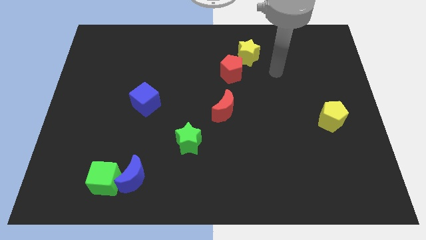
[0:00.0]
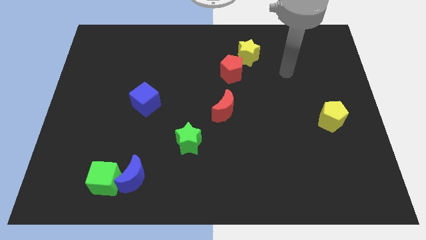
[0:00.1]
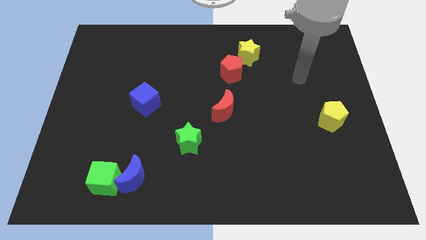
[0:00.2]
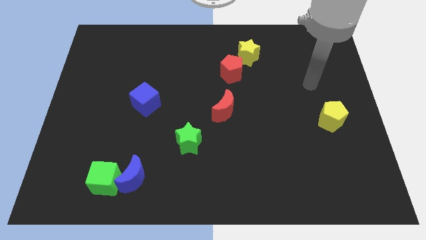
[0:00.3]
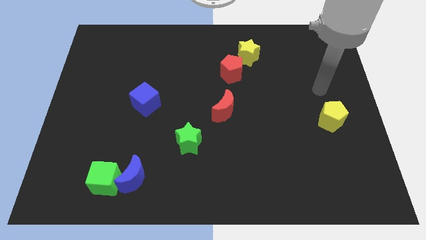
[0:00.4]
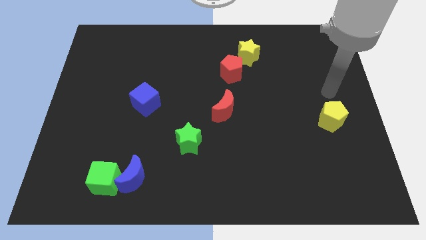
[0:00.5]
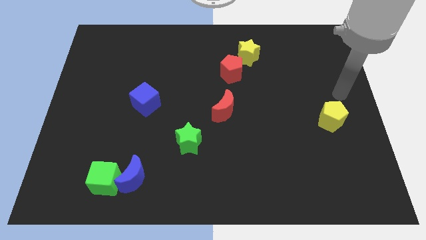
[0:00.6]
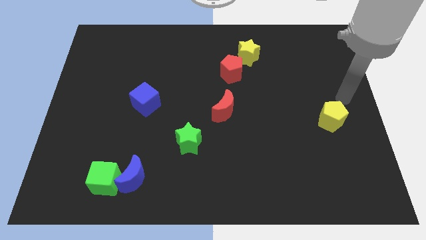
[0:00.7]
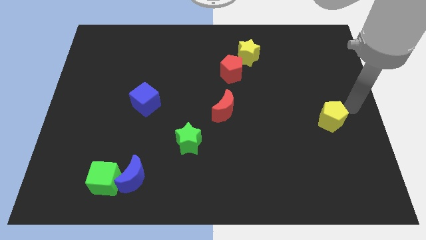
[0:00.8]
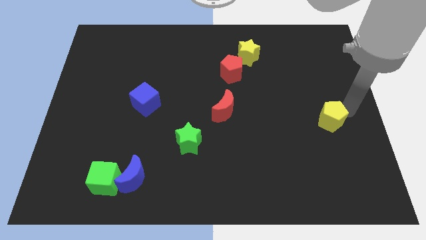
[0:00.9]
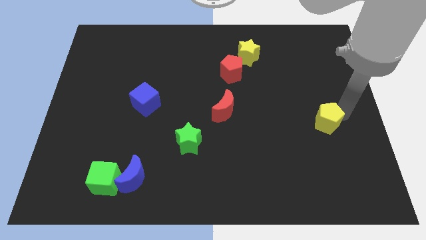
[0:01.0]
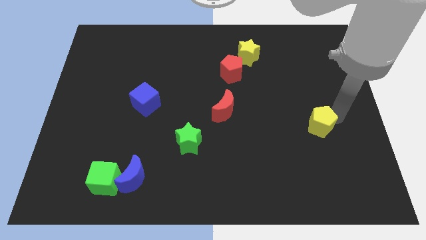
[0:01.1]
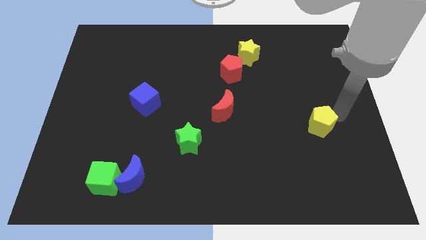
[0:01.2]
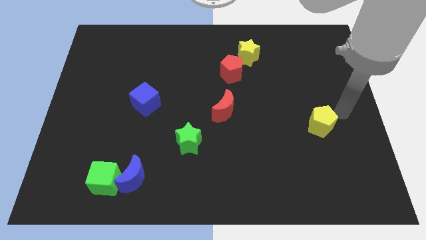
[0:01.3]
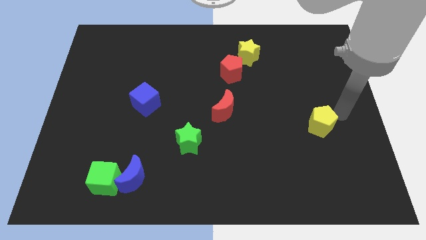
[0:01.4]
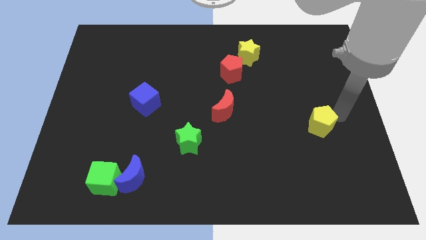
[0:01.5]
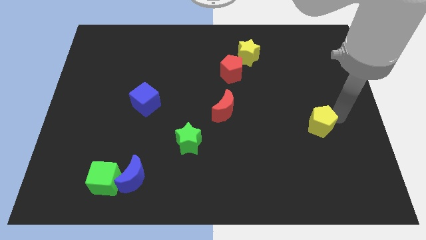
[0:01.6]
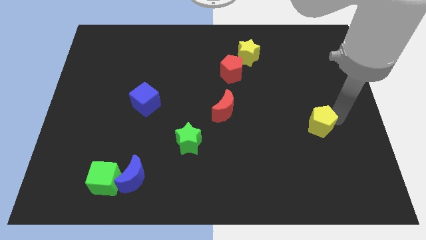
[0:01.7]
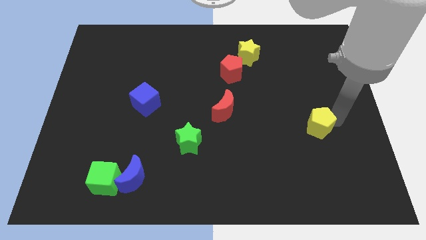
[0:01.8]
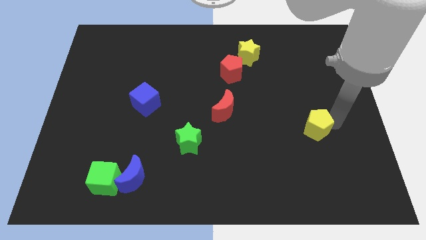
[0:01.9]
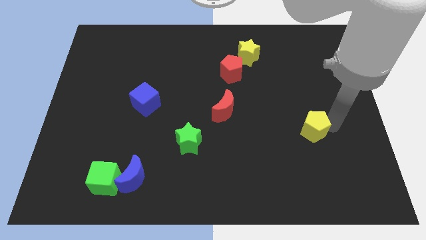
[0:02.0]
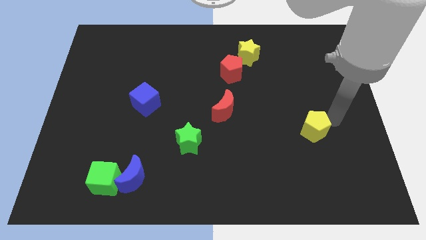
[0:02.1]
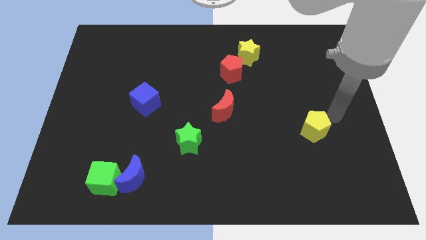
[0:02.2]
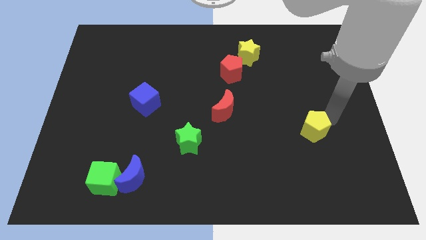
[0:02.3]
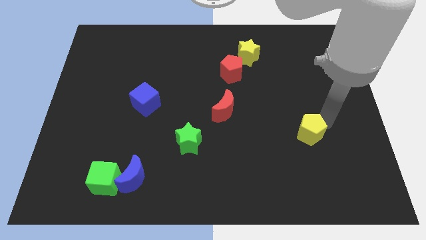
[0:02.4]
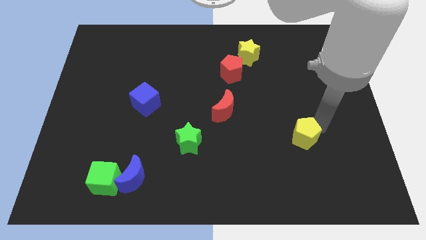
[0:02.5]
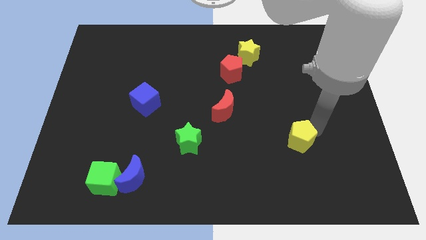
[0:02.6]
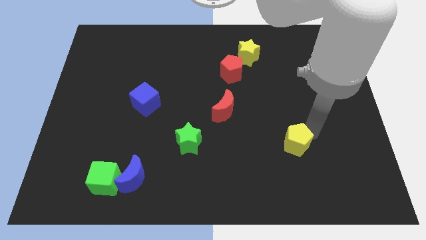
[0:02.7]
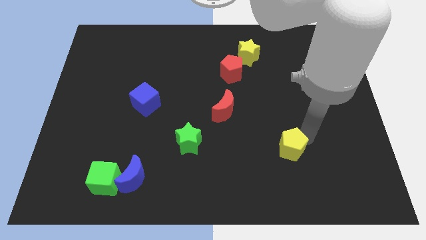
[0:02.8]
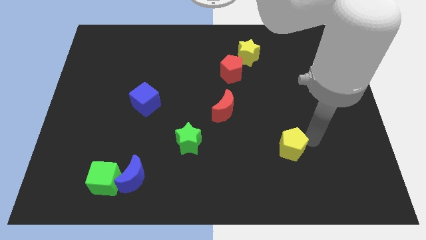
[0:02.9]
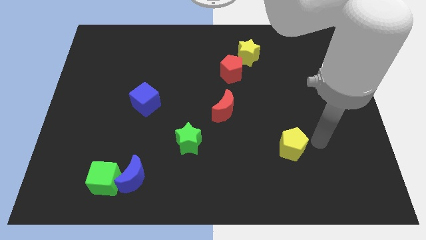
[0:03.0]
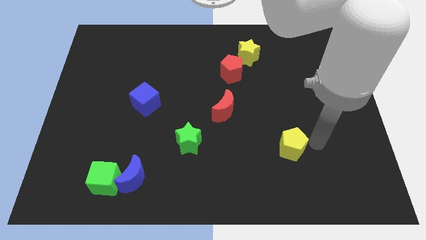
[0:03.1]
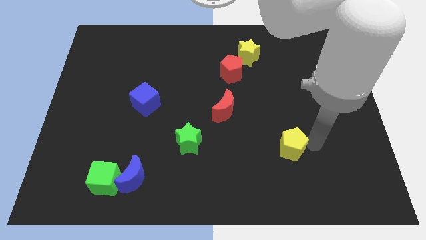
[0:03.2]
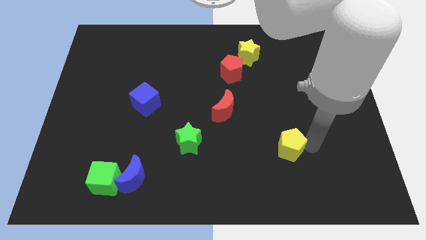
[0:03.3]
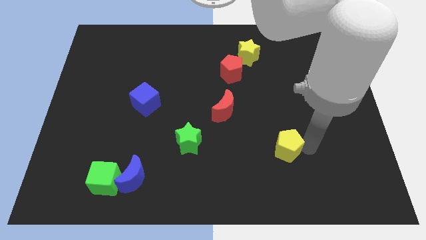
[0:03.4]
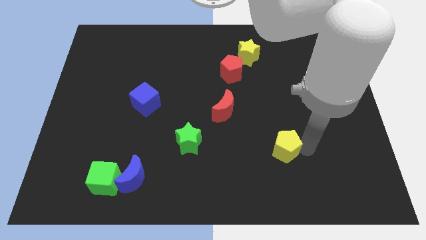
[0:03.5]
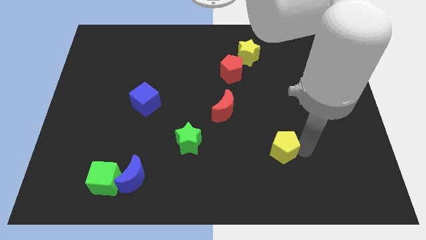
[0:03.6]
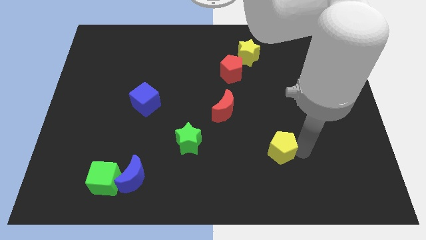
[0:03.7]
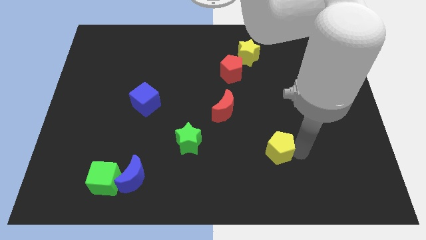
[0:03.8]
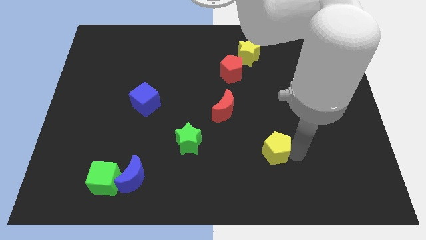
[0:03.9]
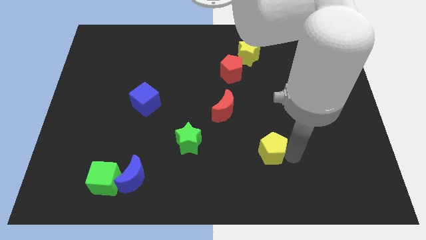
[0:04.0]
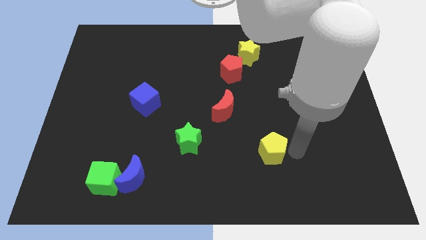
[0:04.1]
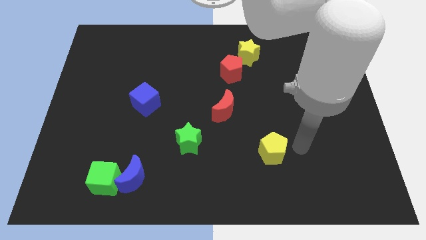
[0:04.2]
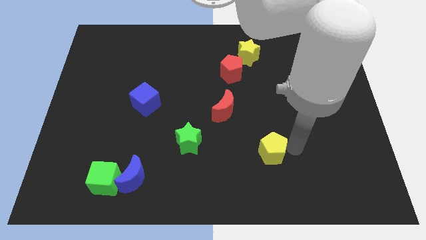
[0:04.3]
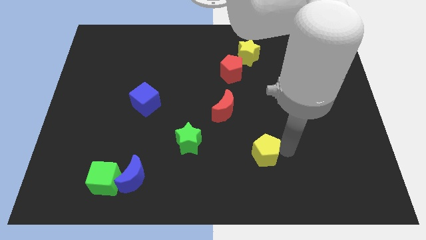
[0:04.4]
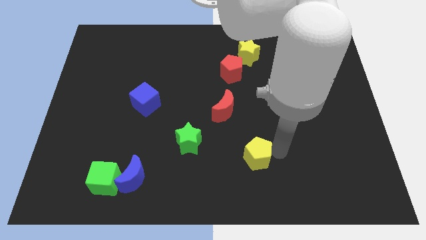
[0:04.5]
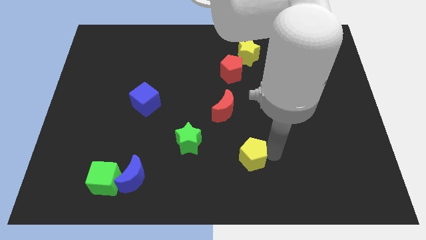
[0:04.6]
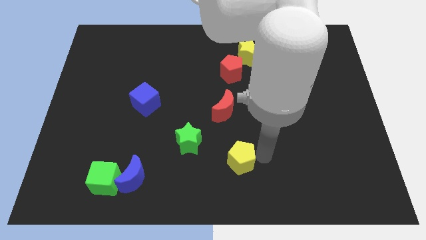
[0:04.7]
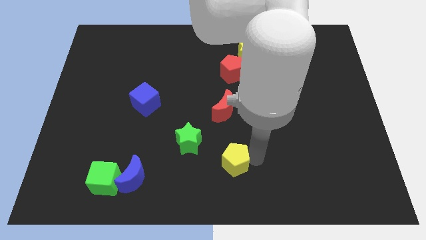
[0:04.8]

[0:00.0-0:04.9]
put the yellow pentagon to the bottom right side of the green star

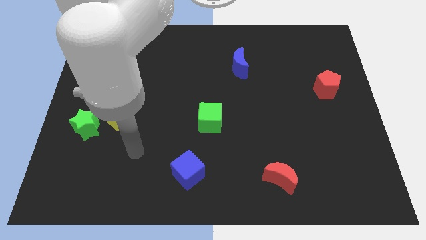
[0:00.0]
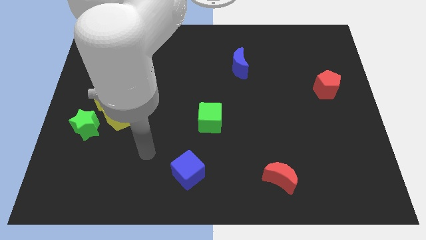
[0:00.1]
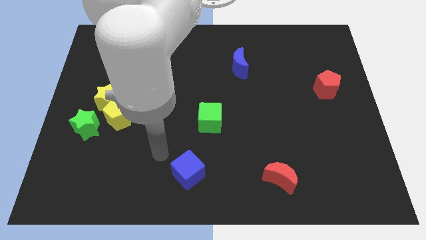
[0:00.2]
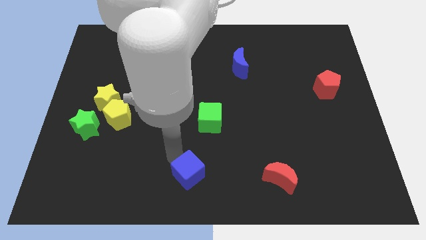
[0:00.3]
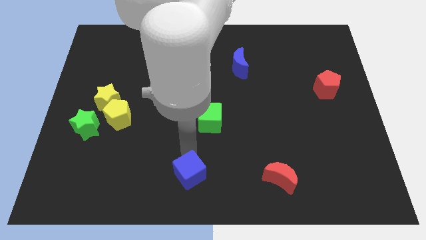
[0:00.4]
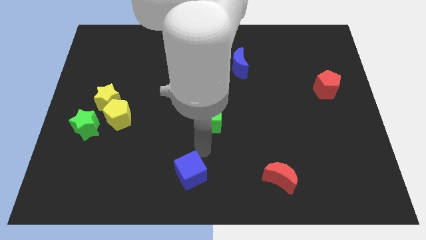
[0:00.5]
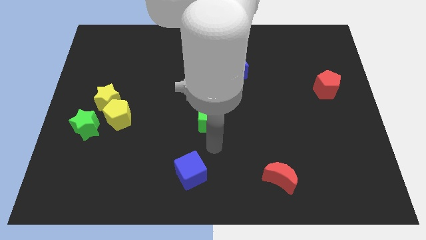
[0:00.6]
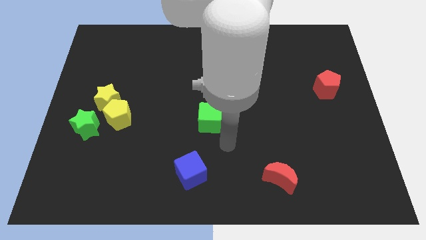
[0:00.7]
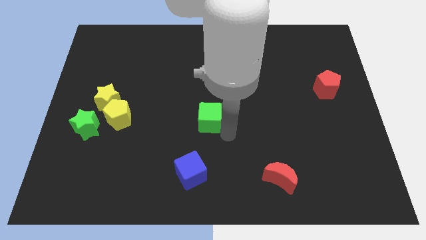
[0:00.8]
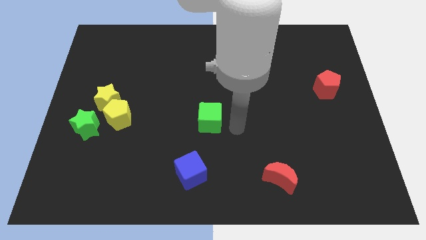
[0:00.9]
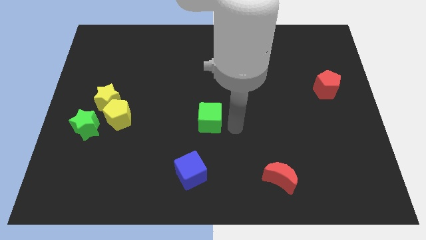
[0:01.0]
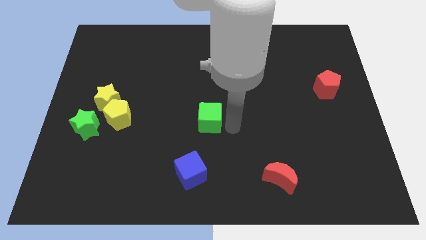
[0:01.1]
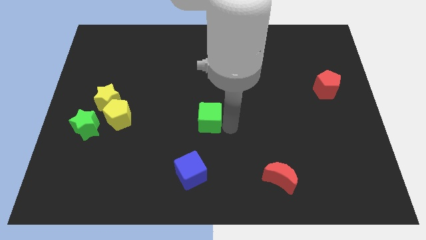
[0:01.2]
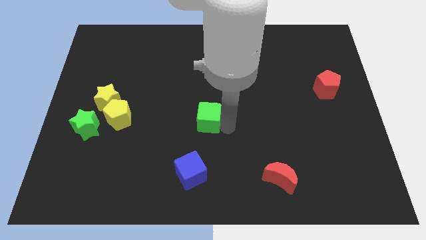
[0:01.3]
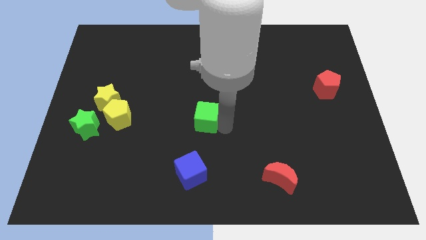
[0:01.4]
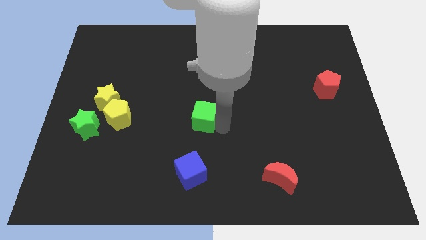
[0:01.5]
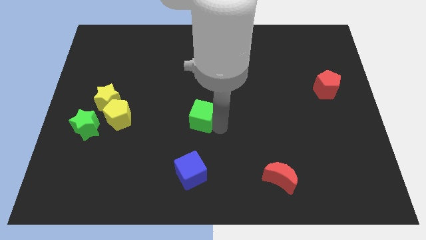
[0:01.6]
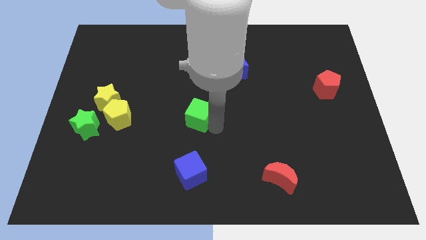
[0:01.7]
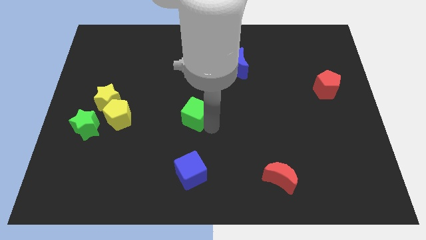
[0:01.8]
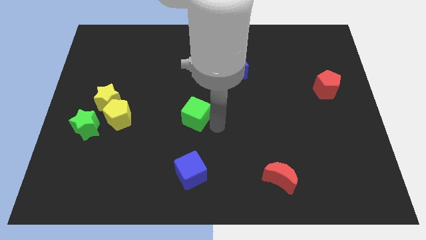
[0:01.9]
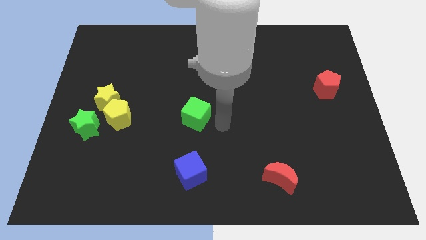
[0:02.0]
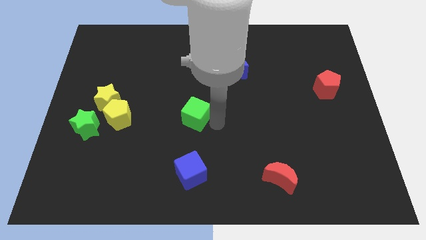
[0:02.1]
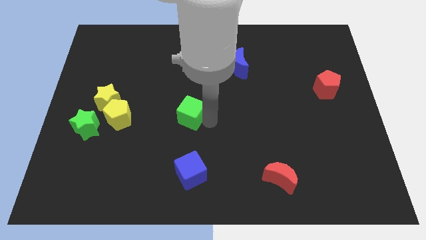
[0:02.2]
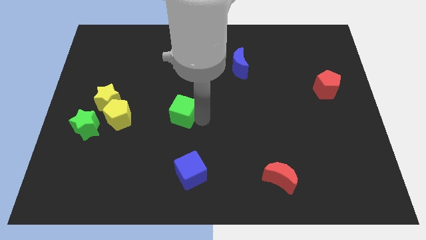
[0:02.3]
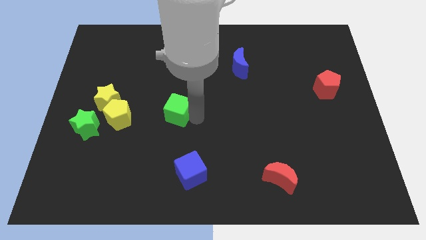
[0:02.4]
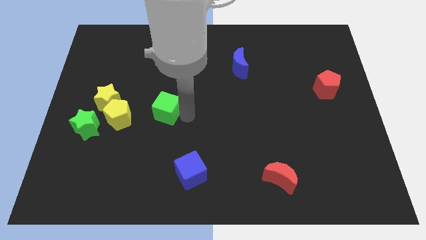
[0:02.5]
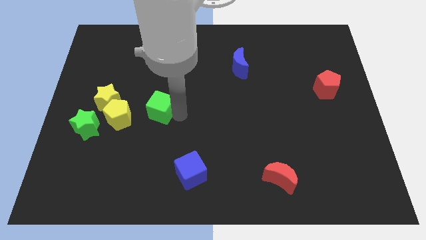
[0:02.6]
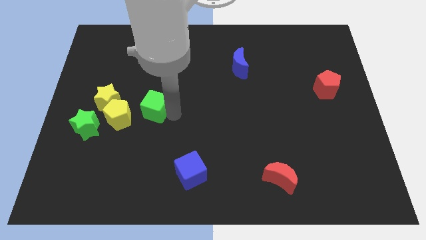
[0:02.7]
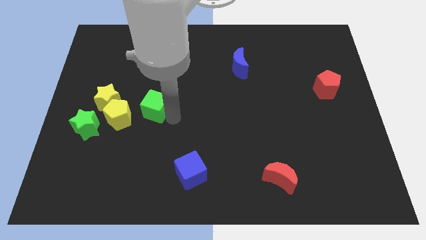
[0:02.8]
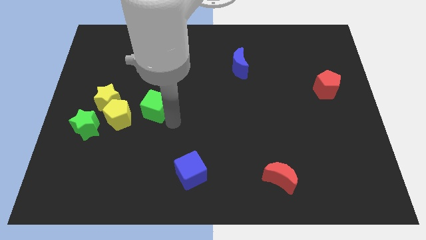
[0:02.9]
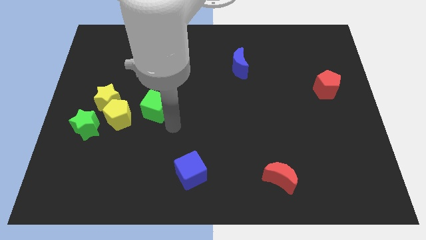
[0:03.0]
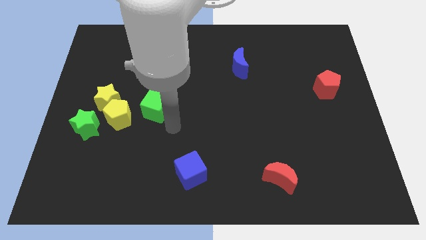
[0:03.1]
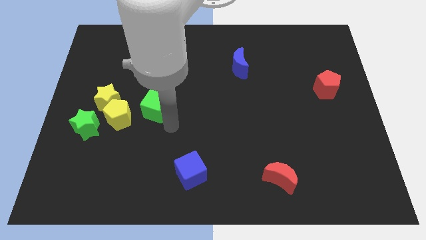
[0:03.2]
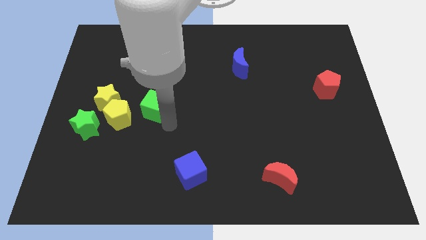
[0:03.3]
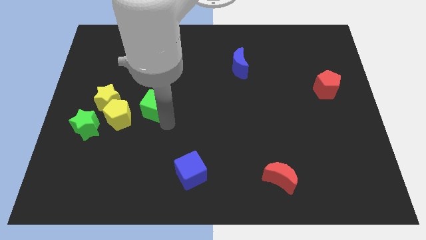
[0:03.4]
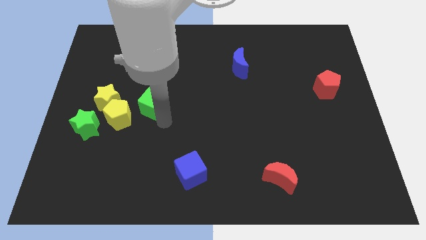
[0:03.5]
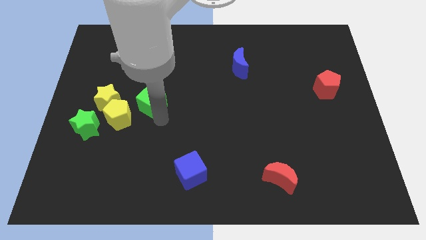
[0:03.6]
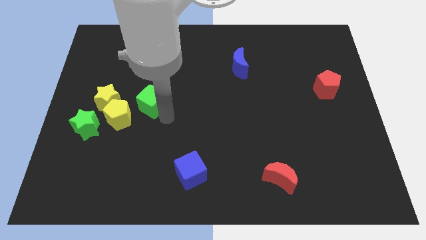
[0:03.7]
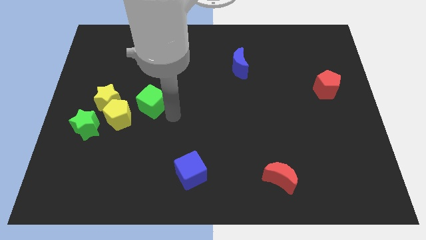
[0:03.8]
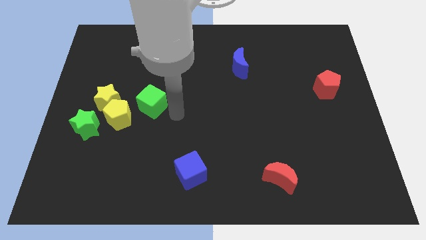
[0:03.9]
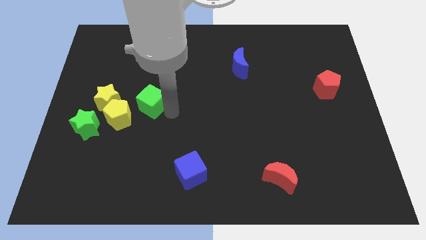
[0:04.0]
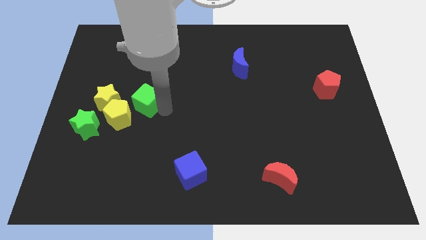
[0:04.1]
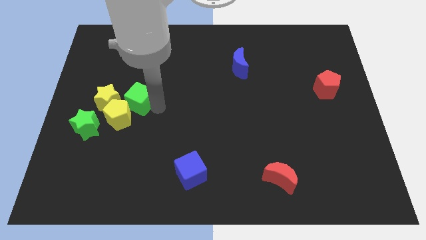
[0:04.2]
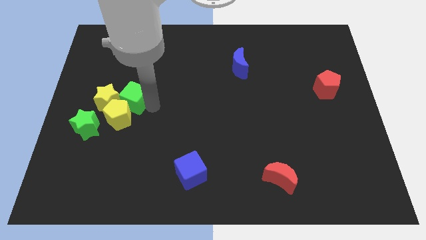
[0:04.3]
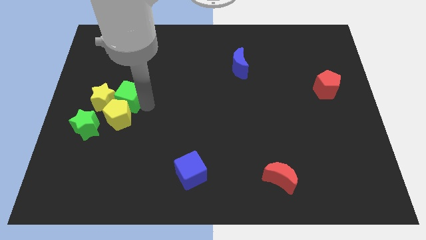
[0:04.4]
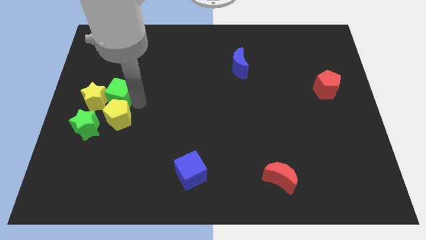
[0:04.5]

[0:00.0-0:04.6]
put the green cube to the top left side of the yellow pentagon
